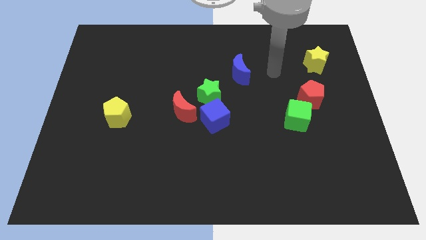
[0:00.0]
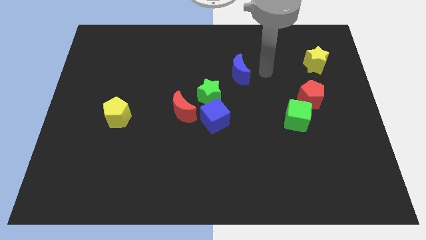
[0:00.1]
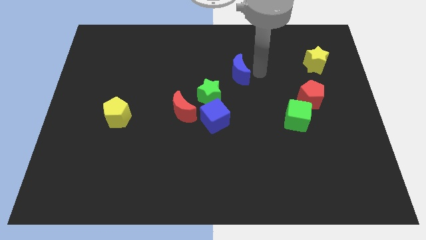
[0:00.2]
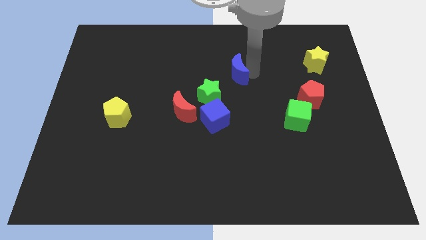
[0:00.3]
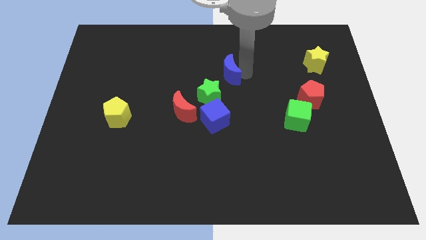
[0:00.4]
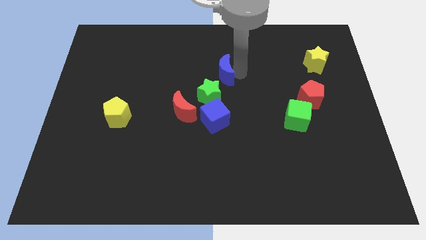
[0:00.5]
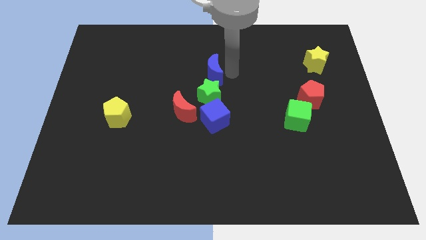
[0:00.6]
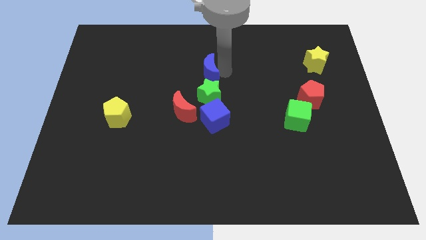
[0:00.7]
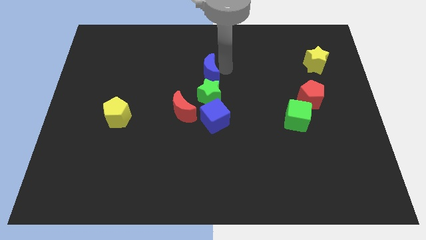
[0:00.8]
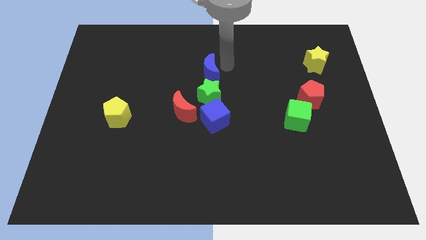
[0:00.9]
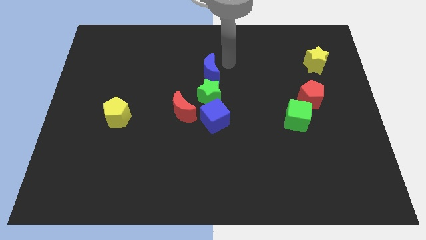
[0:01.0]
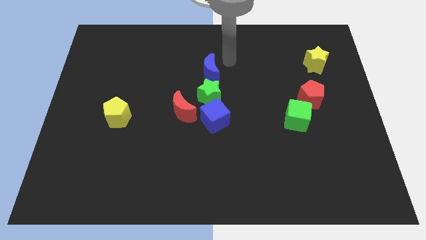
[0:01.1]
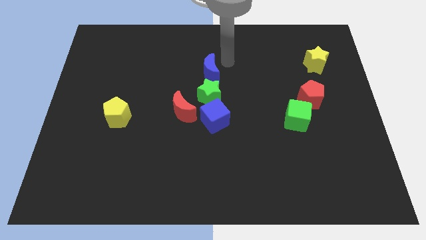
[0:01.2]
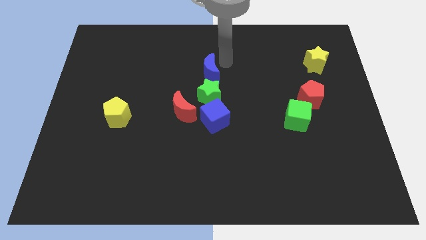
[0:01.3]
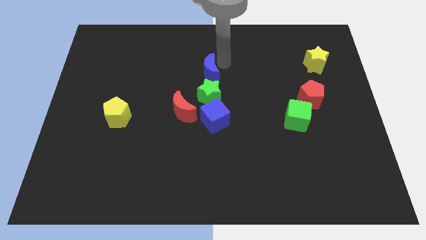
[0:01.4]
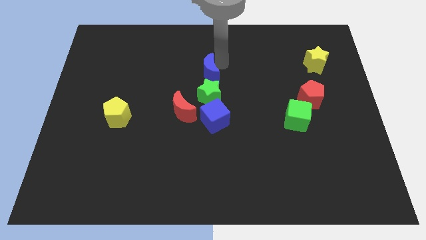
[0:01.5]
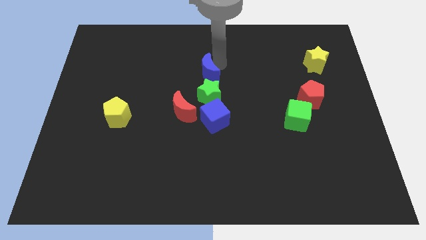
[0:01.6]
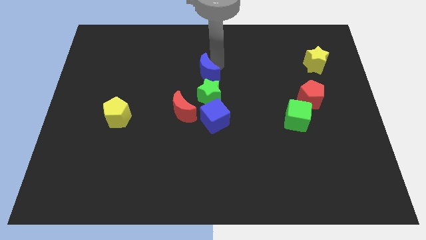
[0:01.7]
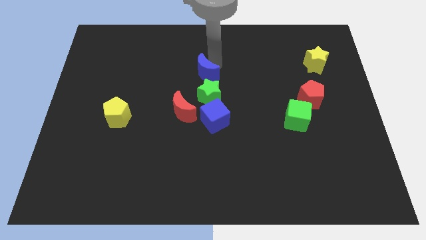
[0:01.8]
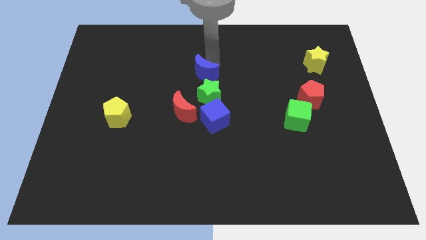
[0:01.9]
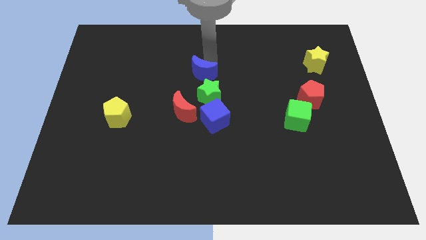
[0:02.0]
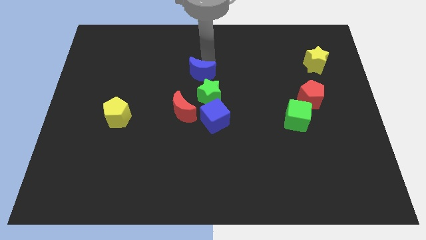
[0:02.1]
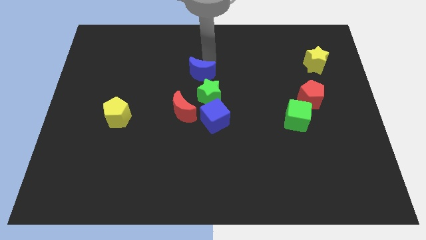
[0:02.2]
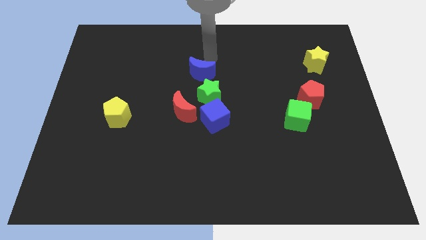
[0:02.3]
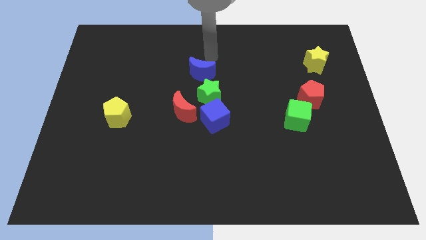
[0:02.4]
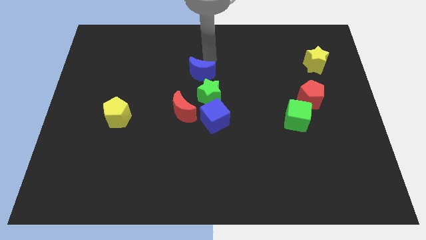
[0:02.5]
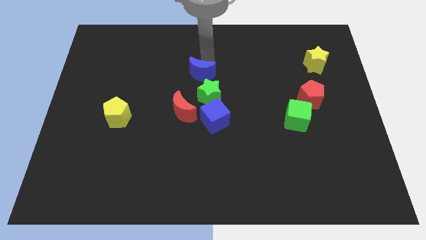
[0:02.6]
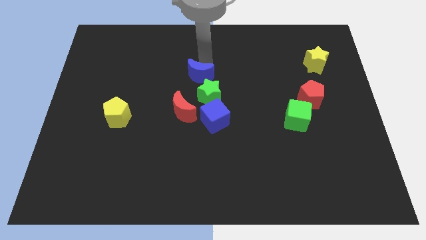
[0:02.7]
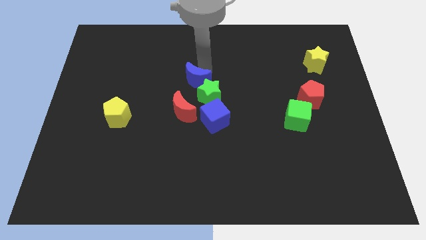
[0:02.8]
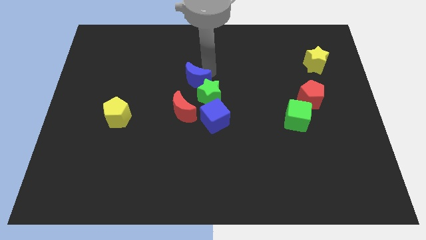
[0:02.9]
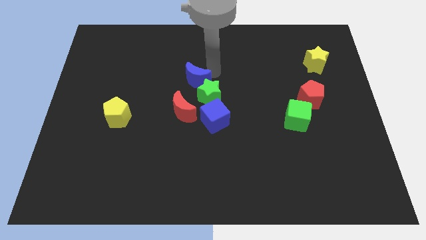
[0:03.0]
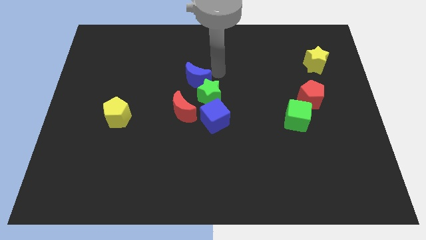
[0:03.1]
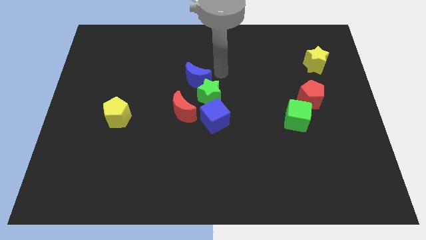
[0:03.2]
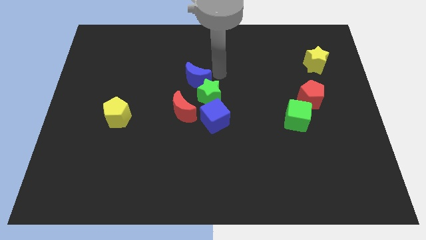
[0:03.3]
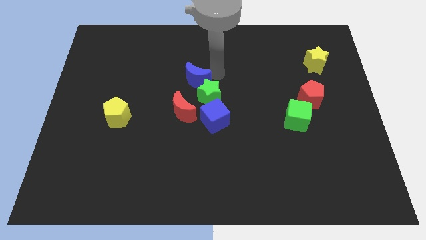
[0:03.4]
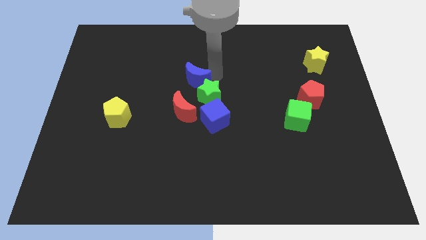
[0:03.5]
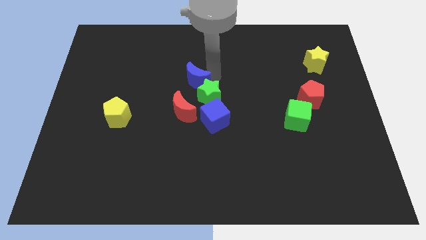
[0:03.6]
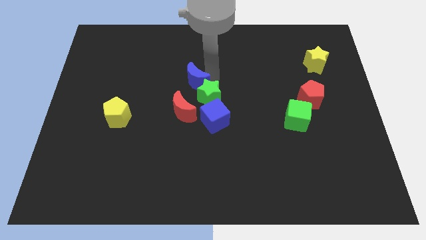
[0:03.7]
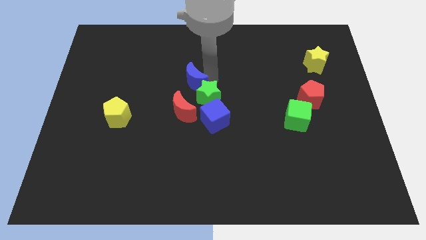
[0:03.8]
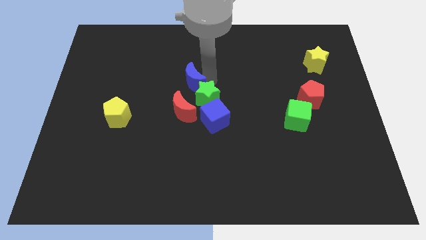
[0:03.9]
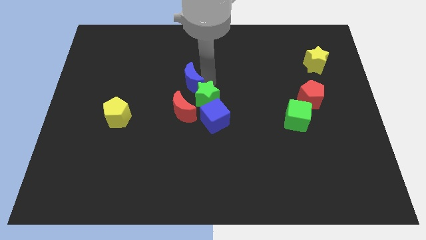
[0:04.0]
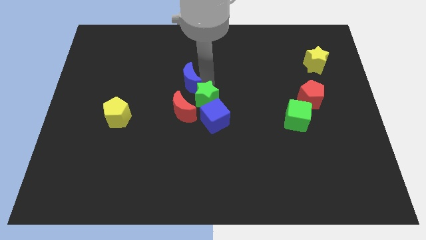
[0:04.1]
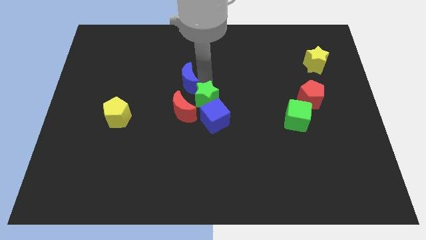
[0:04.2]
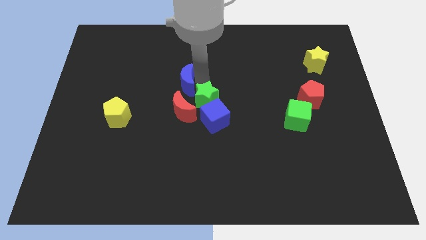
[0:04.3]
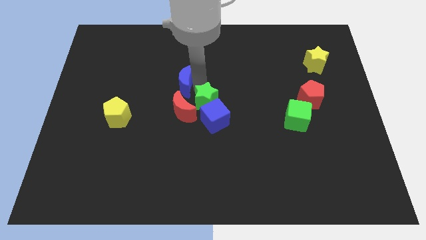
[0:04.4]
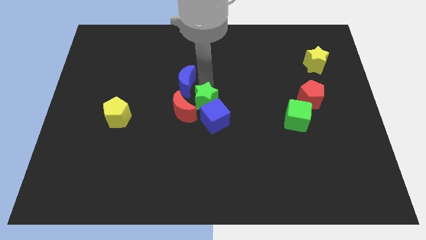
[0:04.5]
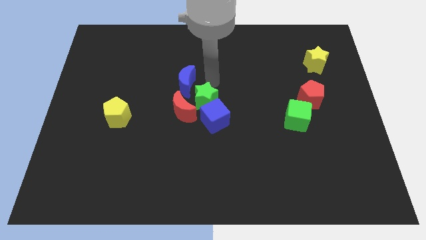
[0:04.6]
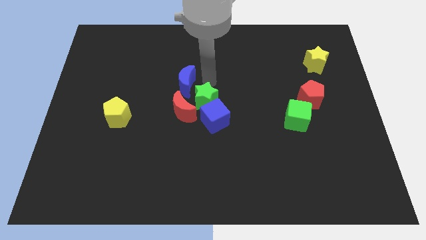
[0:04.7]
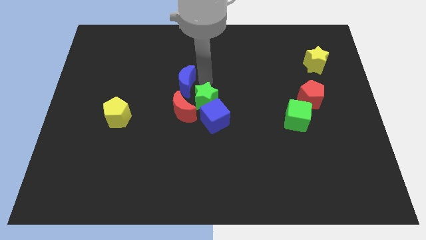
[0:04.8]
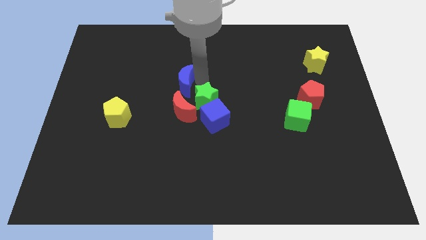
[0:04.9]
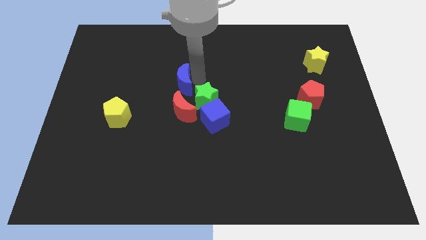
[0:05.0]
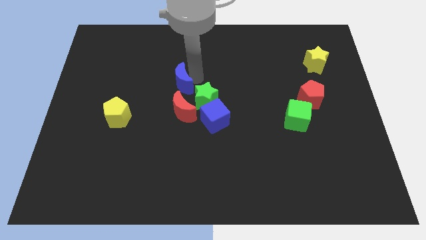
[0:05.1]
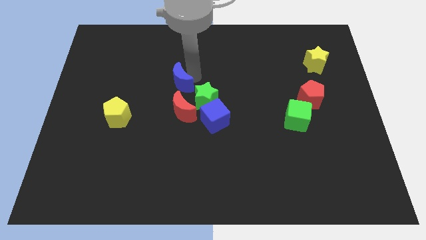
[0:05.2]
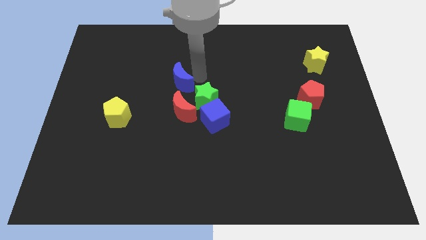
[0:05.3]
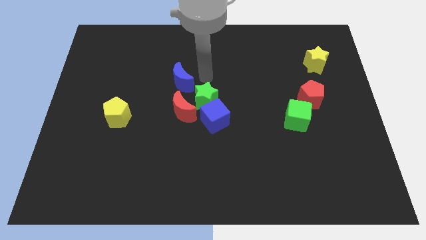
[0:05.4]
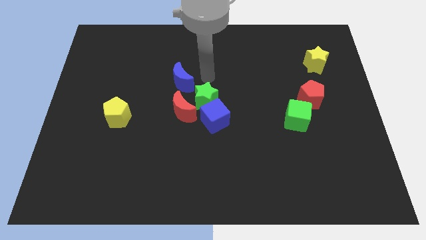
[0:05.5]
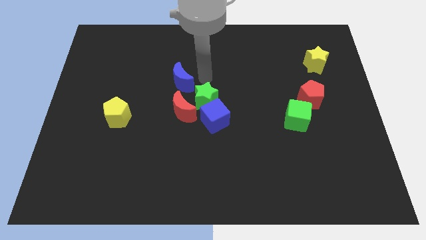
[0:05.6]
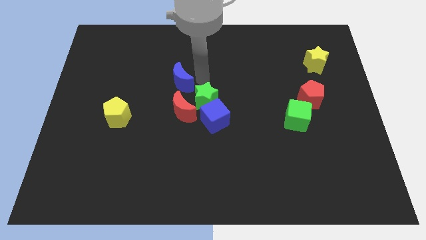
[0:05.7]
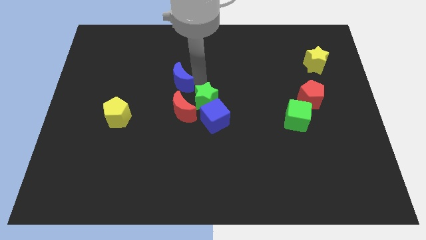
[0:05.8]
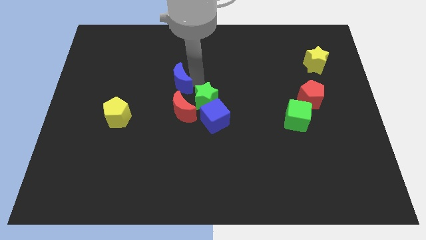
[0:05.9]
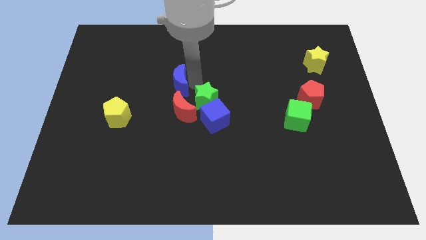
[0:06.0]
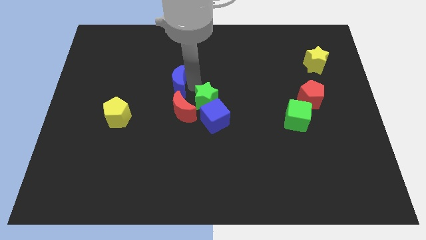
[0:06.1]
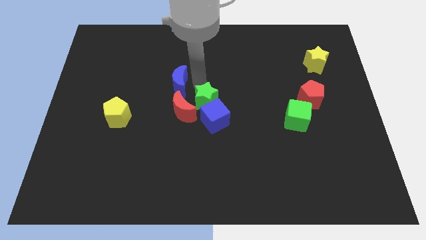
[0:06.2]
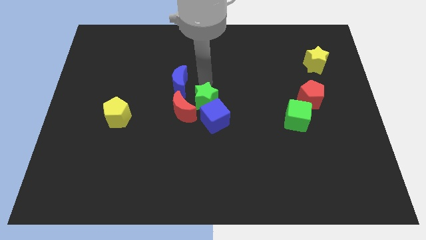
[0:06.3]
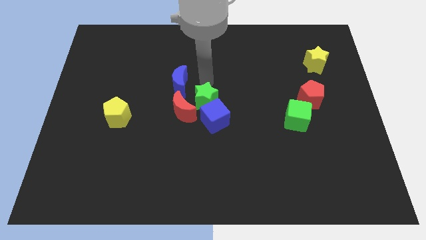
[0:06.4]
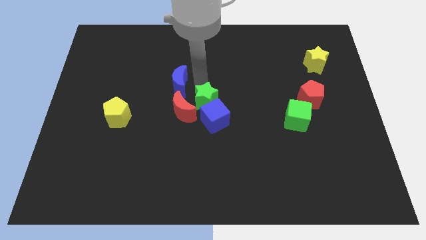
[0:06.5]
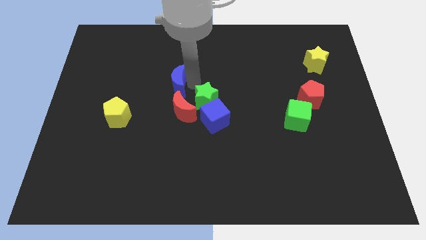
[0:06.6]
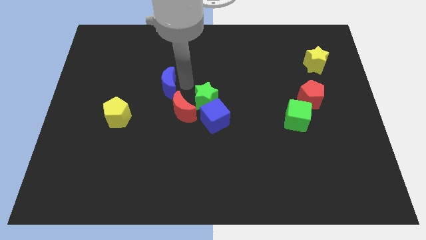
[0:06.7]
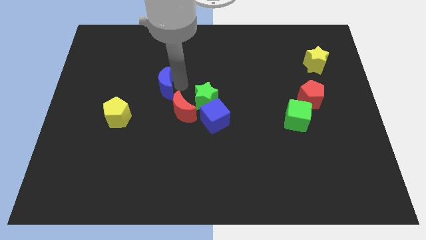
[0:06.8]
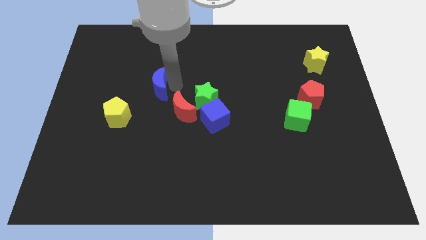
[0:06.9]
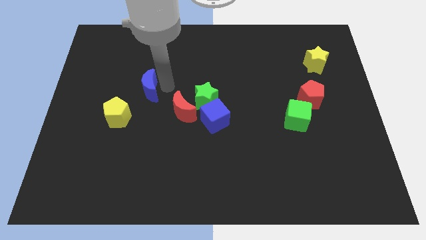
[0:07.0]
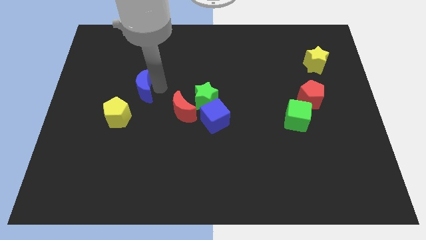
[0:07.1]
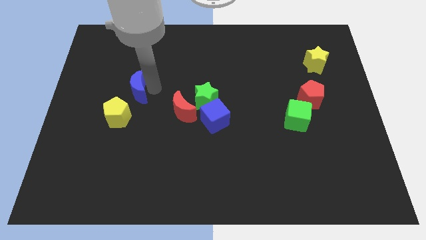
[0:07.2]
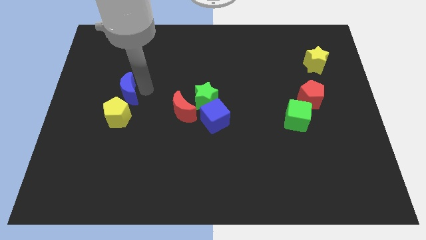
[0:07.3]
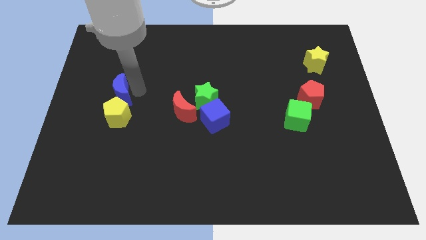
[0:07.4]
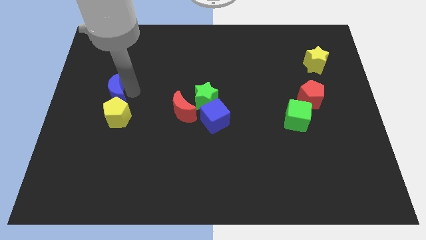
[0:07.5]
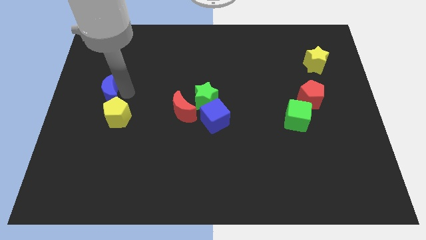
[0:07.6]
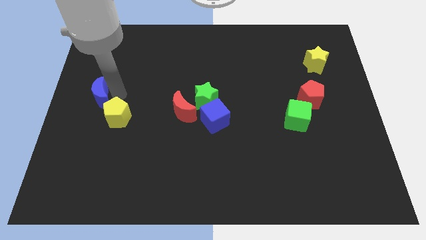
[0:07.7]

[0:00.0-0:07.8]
put the blue moon to the left side
